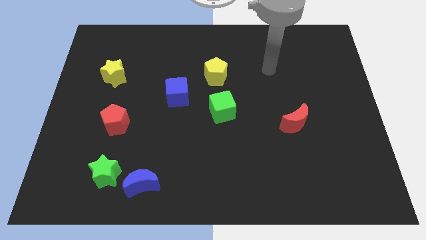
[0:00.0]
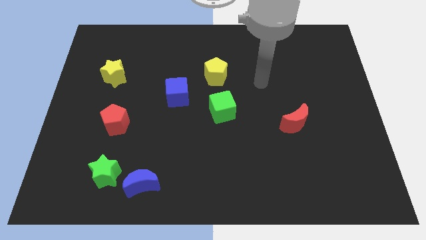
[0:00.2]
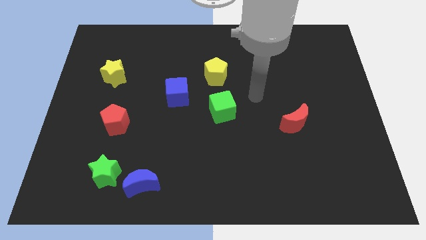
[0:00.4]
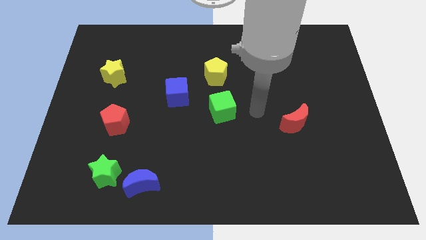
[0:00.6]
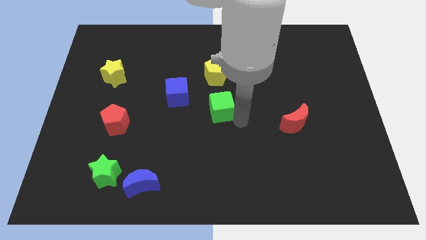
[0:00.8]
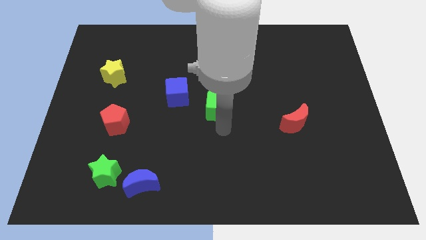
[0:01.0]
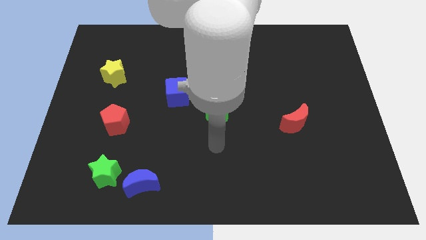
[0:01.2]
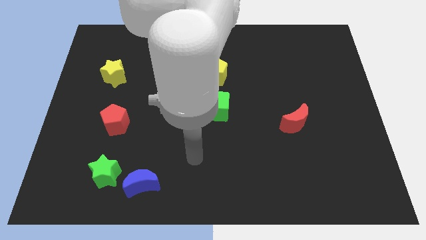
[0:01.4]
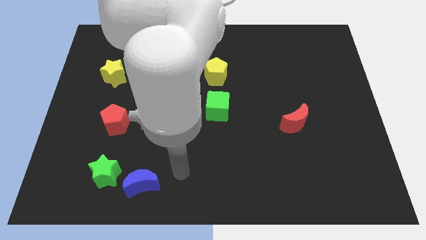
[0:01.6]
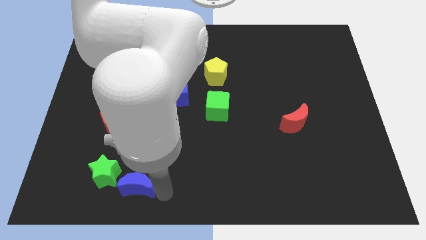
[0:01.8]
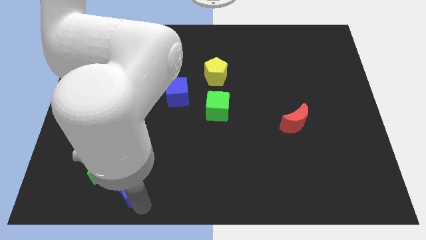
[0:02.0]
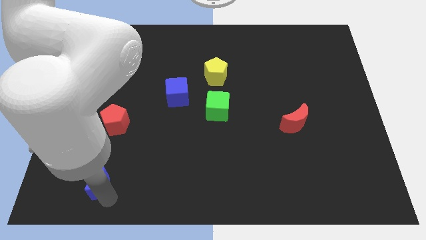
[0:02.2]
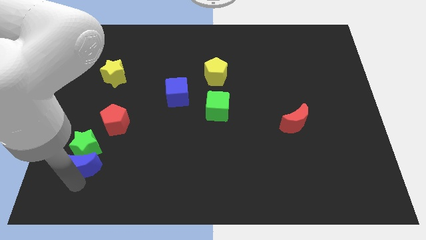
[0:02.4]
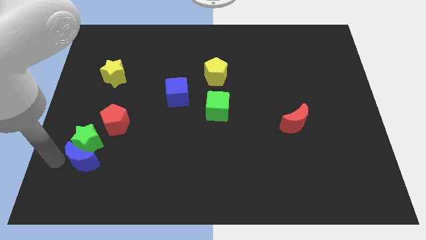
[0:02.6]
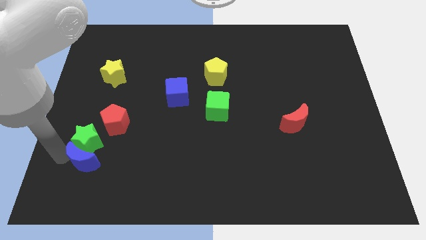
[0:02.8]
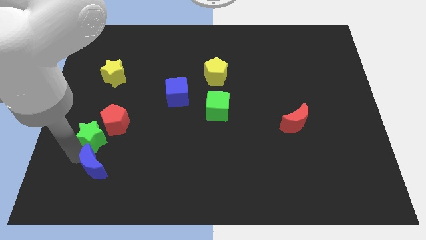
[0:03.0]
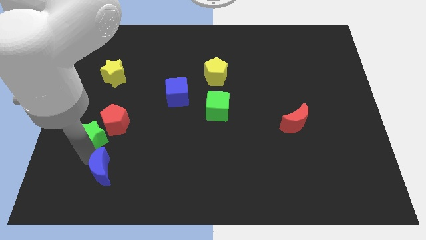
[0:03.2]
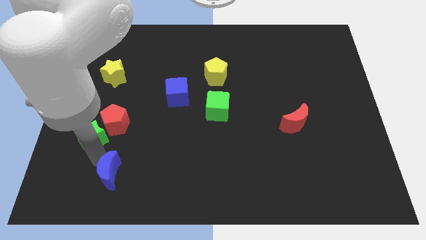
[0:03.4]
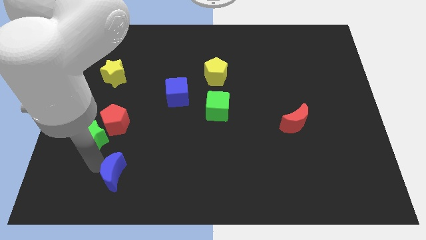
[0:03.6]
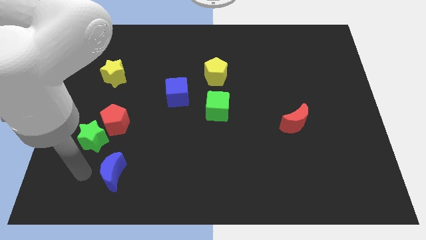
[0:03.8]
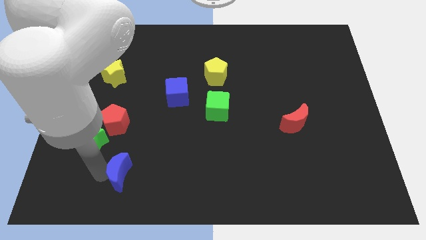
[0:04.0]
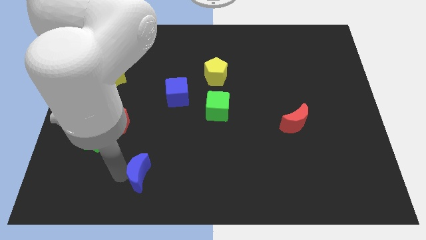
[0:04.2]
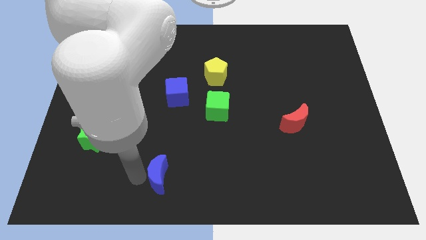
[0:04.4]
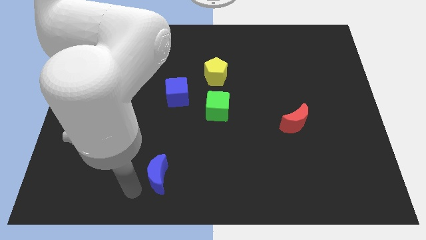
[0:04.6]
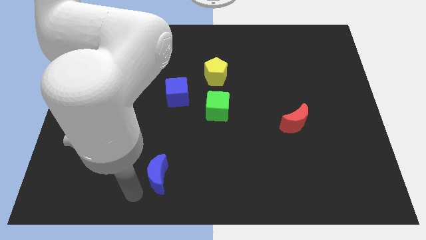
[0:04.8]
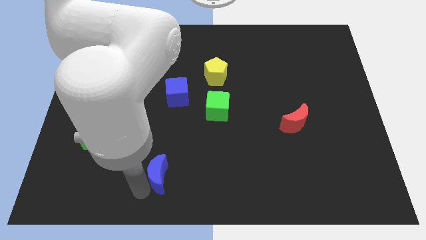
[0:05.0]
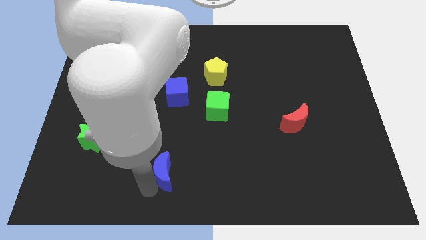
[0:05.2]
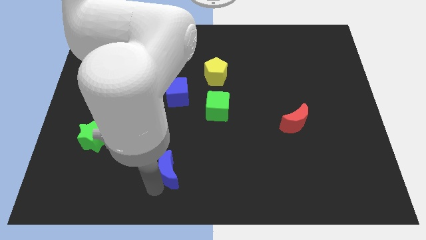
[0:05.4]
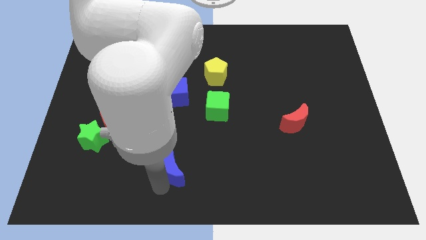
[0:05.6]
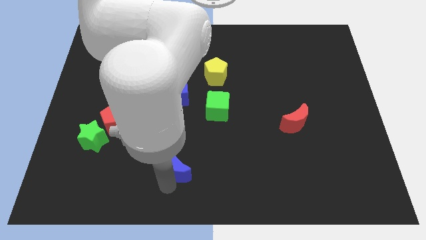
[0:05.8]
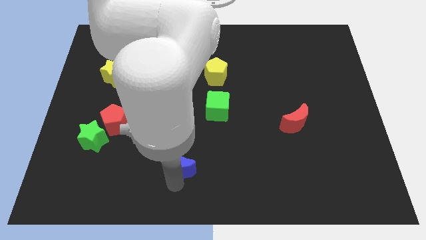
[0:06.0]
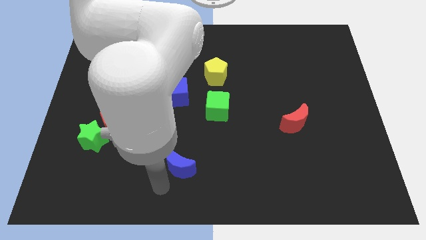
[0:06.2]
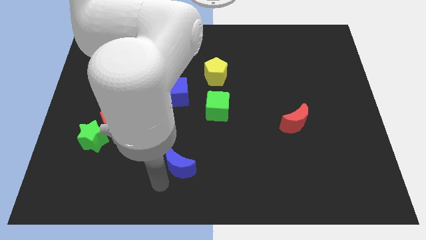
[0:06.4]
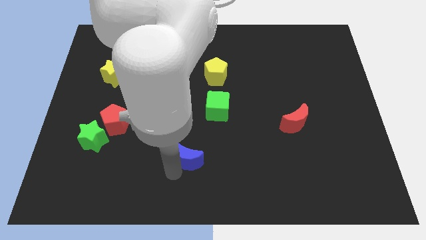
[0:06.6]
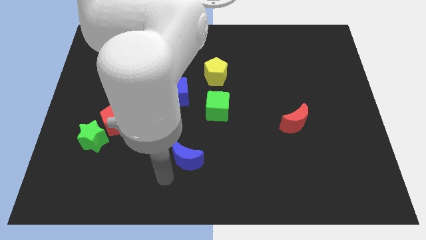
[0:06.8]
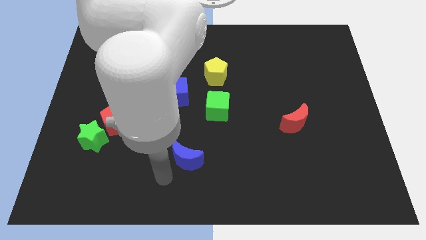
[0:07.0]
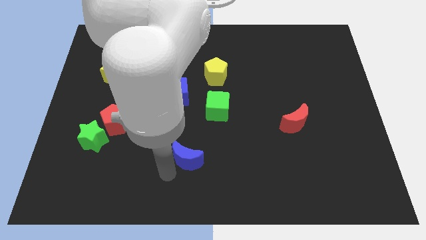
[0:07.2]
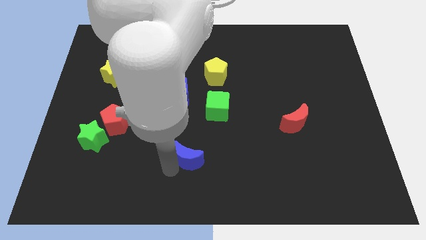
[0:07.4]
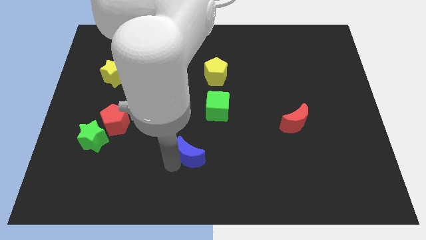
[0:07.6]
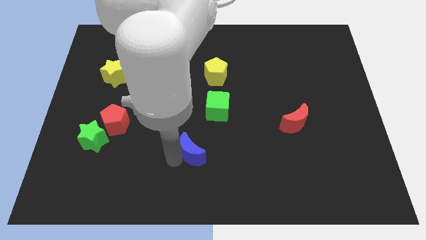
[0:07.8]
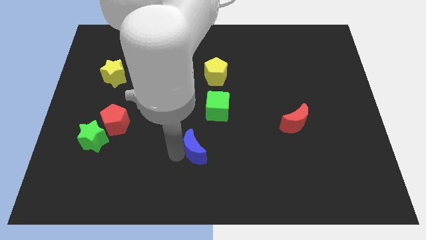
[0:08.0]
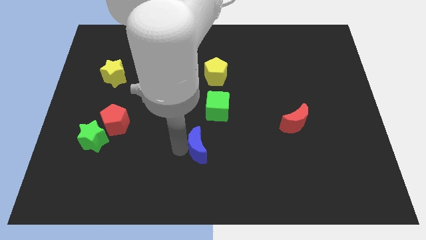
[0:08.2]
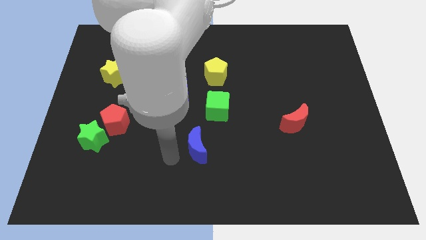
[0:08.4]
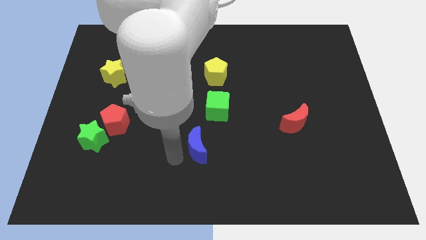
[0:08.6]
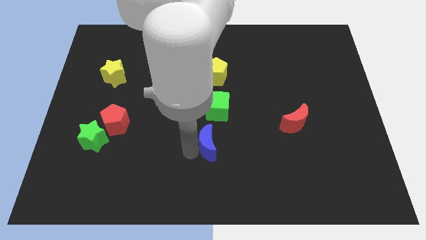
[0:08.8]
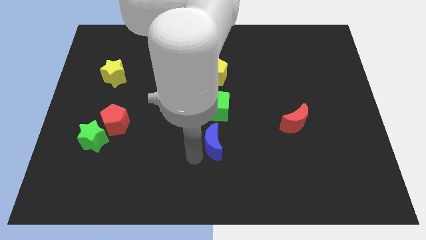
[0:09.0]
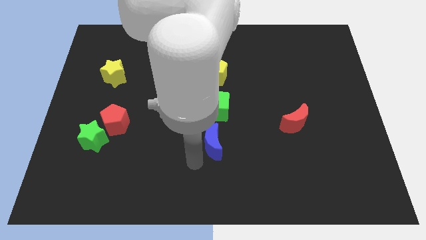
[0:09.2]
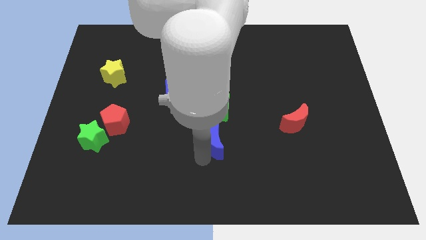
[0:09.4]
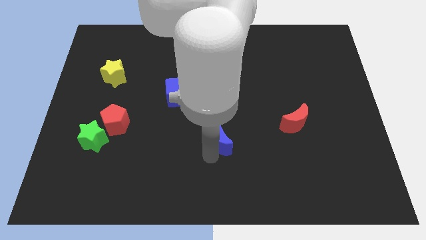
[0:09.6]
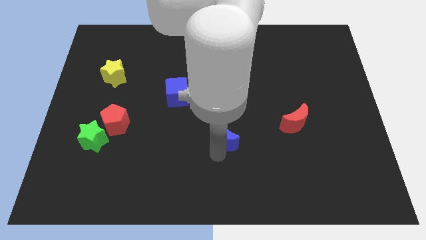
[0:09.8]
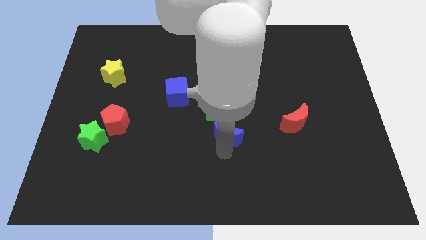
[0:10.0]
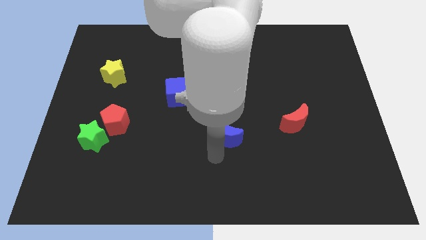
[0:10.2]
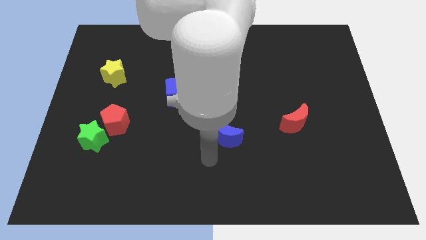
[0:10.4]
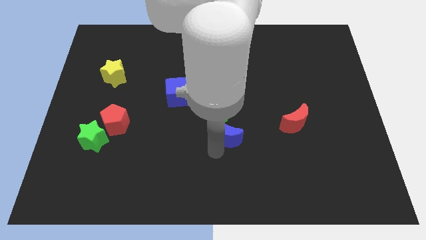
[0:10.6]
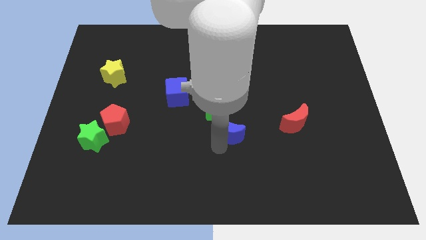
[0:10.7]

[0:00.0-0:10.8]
push the blue moon upwards and to the right diagonally

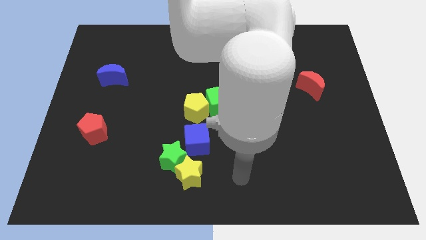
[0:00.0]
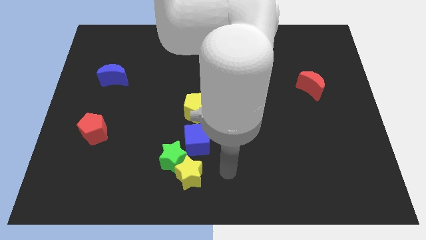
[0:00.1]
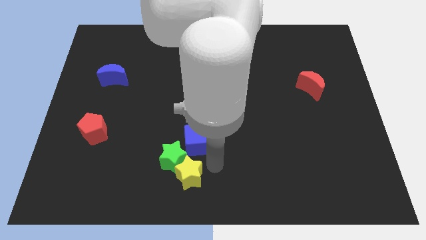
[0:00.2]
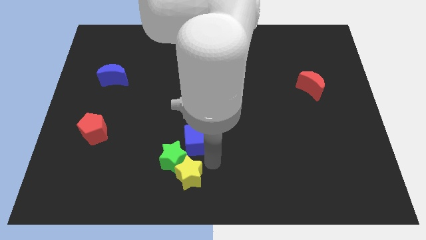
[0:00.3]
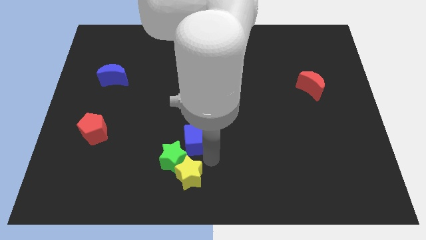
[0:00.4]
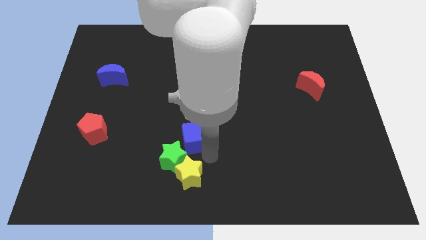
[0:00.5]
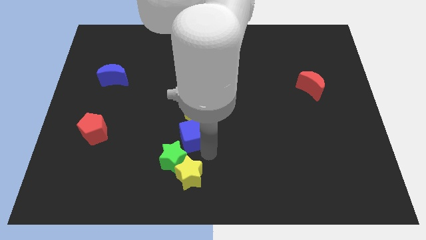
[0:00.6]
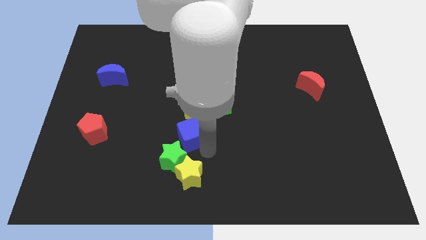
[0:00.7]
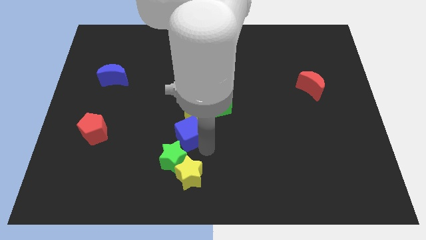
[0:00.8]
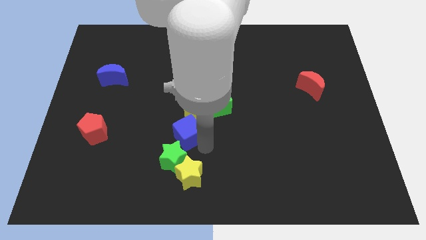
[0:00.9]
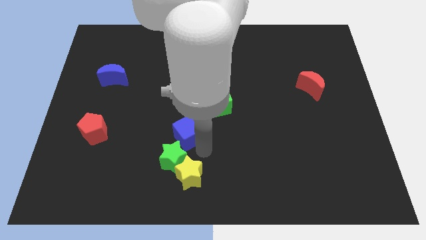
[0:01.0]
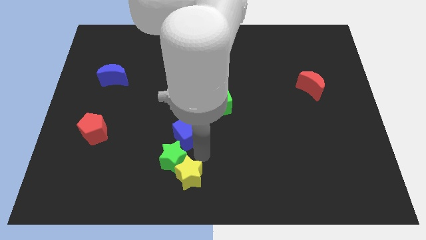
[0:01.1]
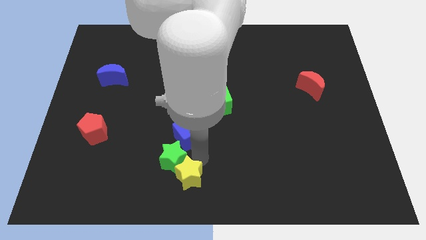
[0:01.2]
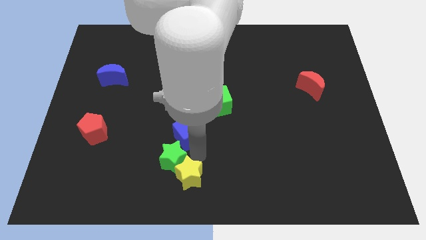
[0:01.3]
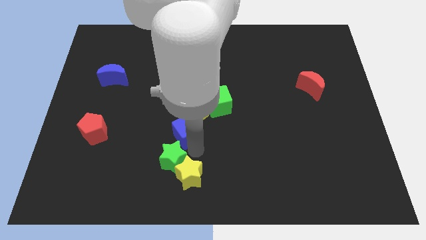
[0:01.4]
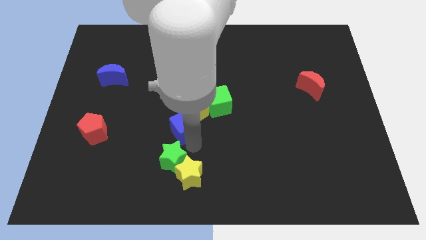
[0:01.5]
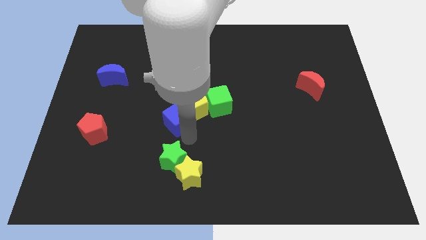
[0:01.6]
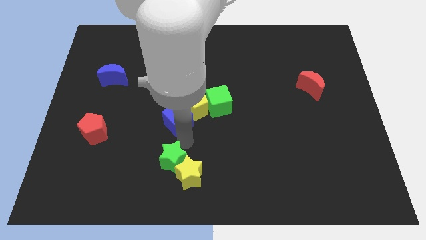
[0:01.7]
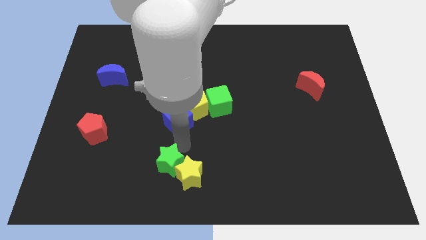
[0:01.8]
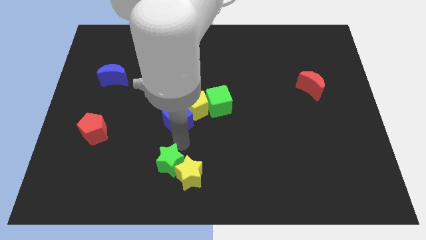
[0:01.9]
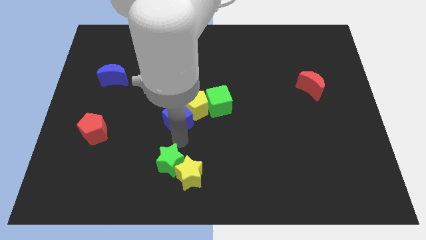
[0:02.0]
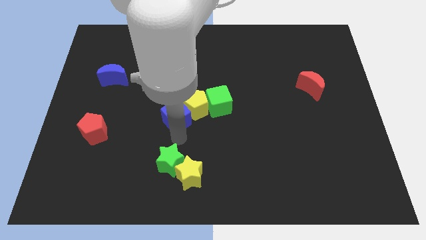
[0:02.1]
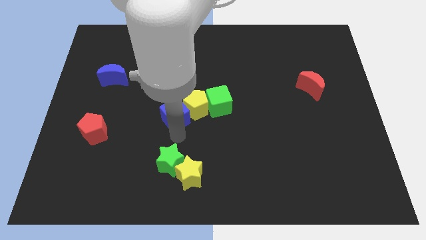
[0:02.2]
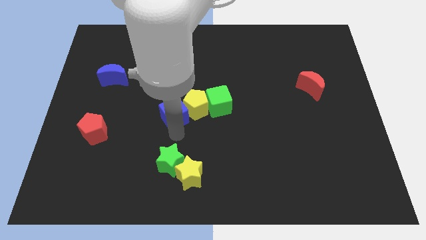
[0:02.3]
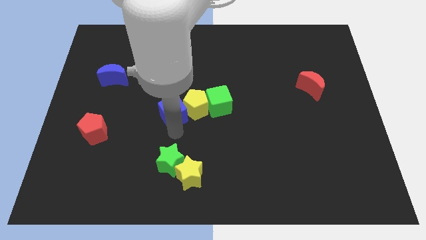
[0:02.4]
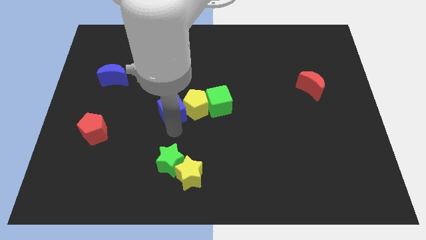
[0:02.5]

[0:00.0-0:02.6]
move the blue cube somewhat upwards
